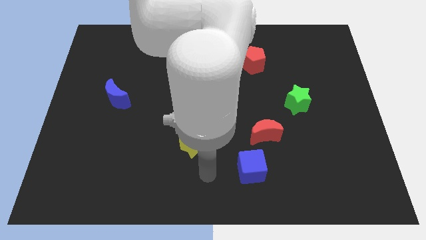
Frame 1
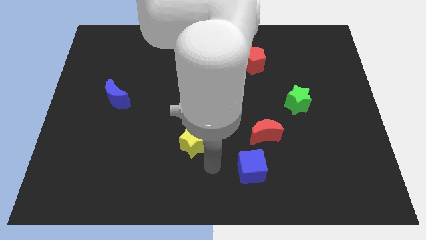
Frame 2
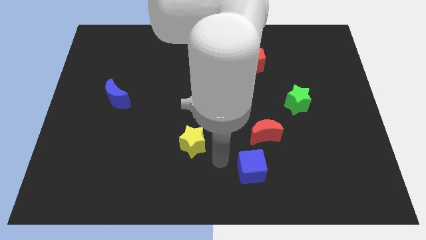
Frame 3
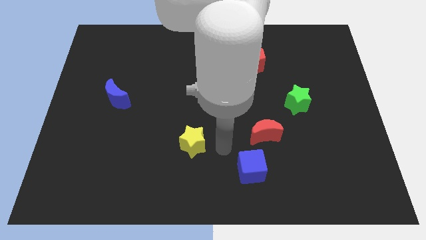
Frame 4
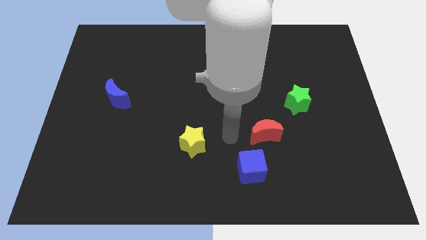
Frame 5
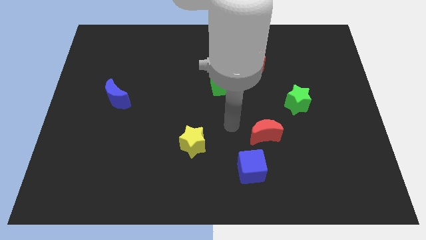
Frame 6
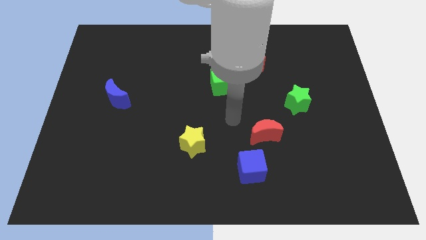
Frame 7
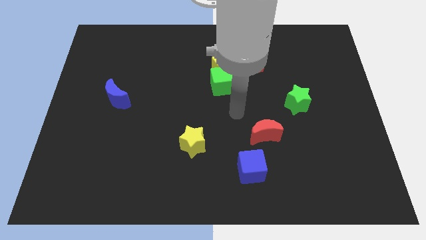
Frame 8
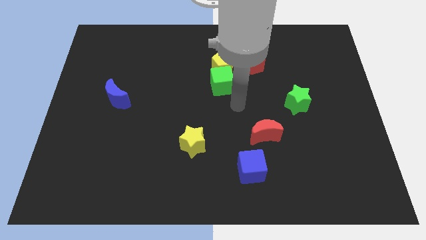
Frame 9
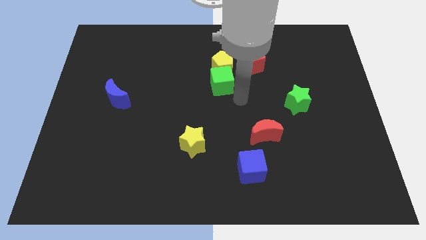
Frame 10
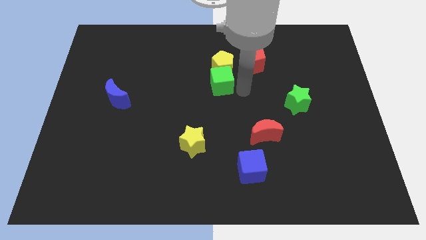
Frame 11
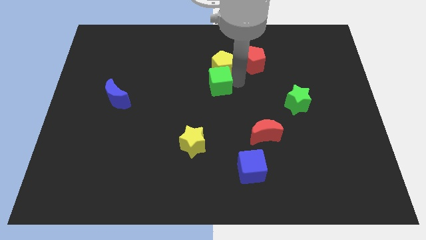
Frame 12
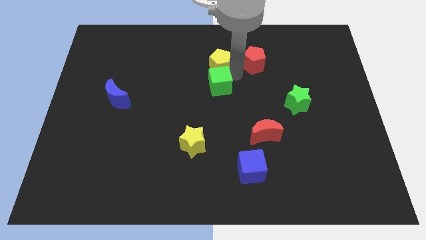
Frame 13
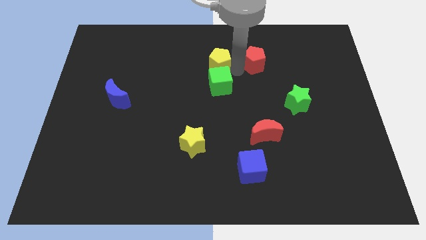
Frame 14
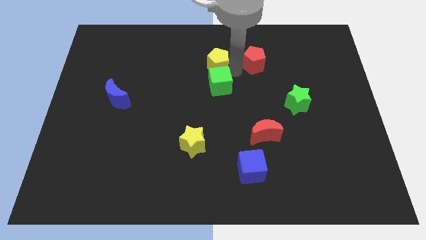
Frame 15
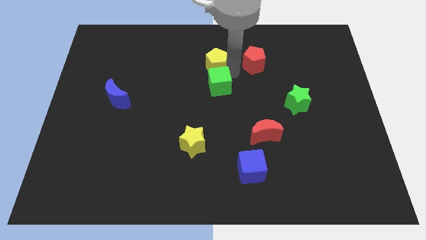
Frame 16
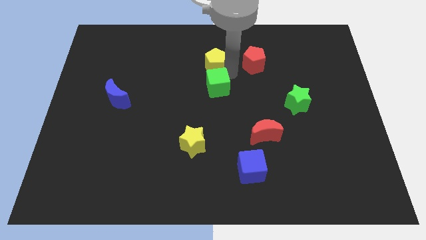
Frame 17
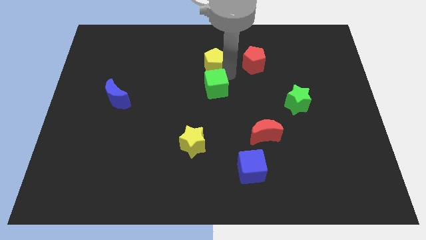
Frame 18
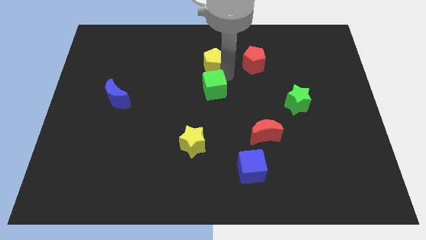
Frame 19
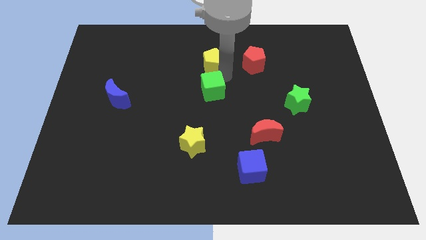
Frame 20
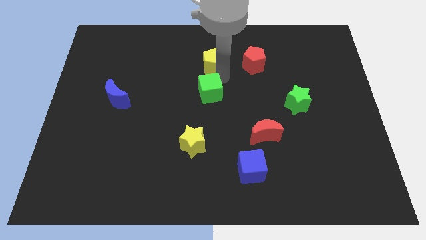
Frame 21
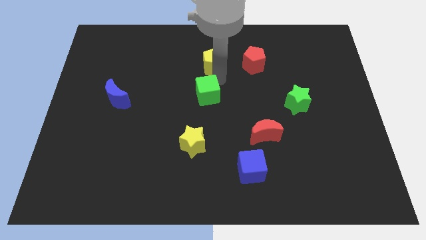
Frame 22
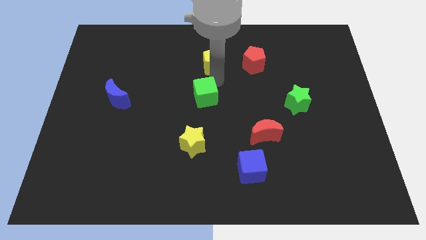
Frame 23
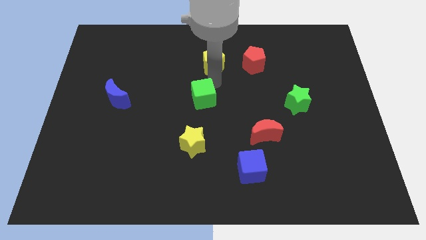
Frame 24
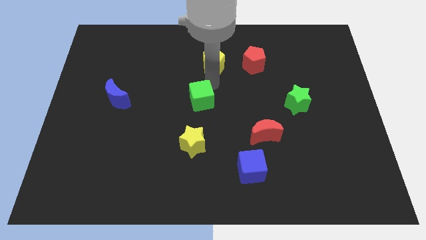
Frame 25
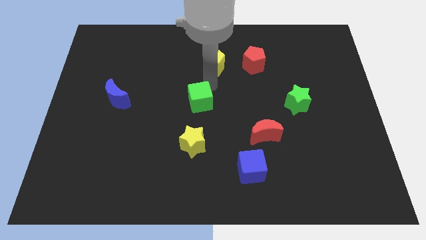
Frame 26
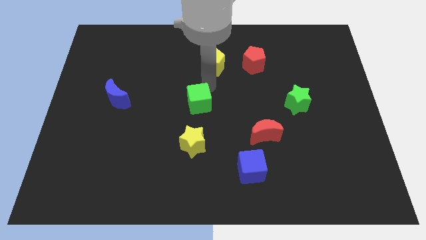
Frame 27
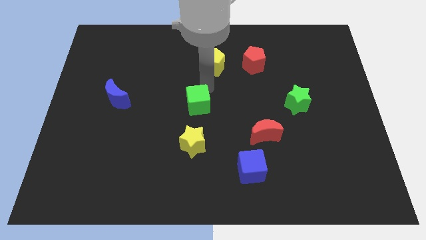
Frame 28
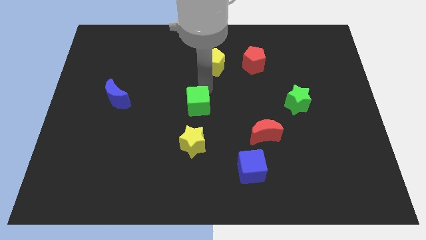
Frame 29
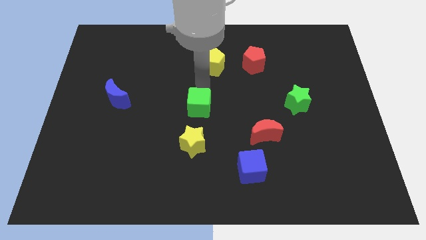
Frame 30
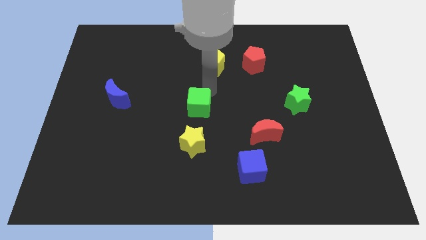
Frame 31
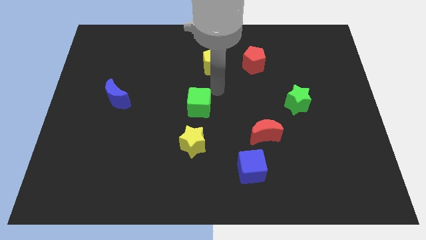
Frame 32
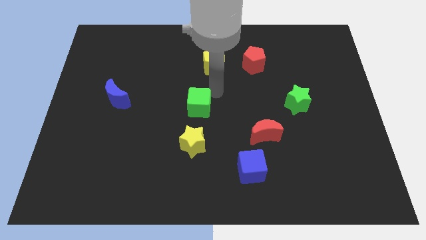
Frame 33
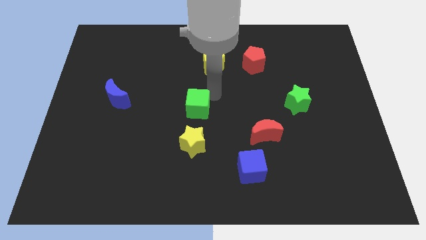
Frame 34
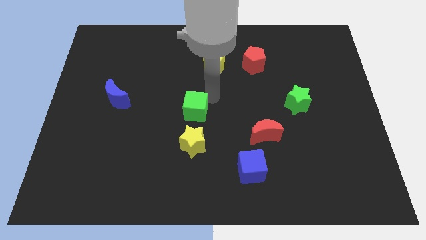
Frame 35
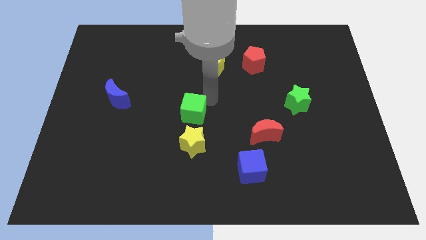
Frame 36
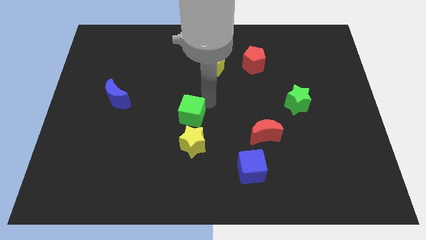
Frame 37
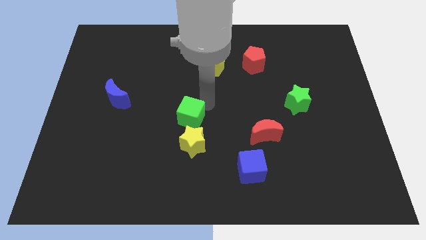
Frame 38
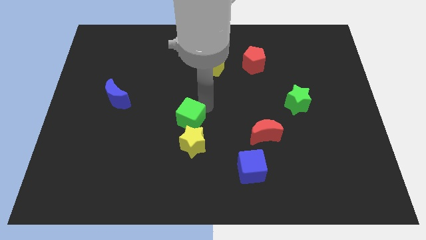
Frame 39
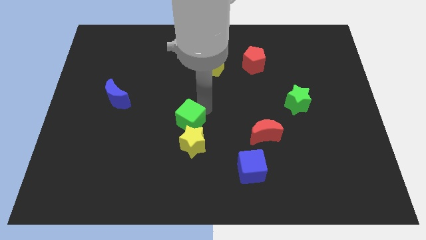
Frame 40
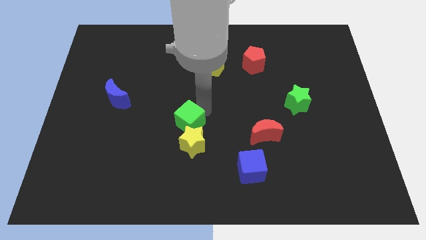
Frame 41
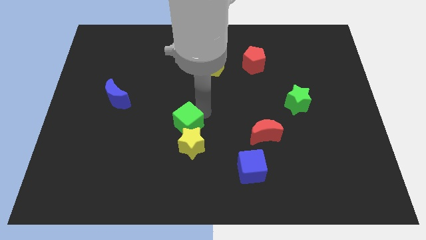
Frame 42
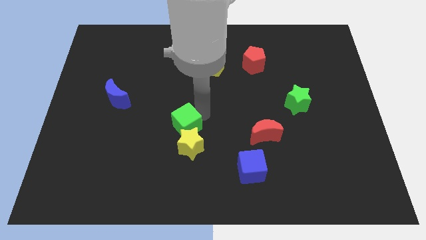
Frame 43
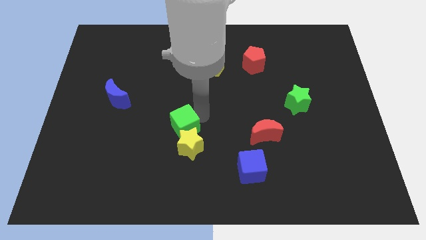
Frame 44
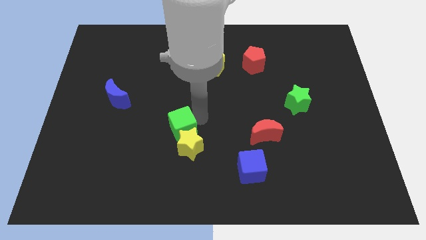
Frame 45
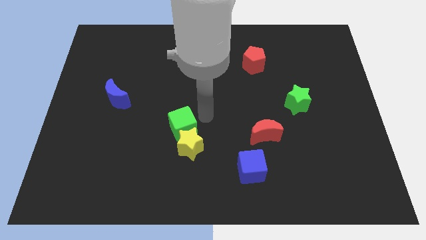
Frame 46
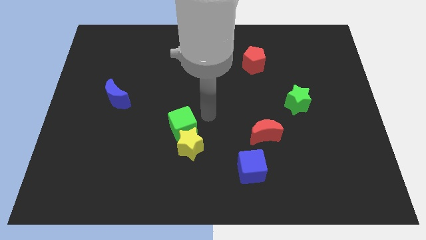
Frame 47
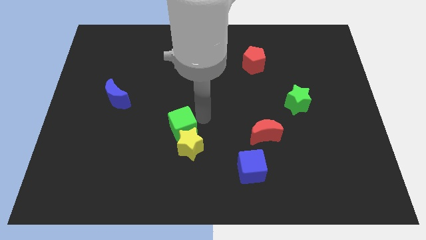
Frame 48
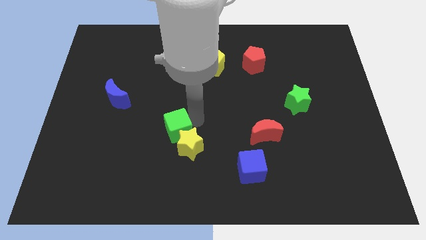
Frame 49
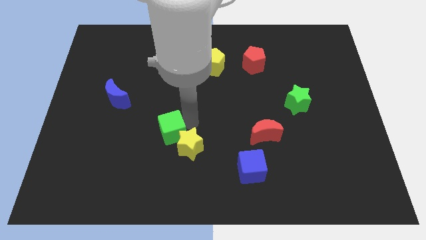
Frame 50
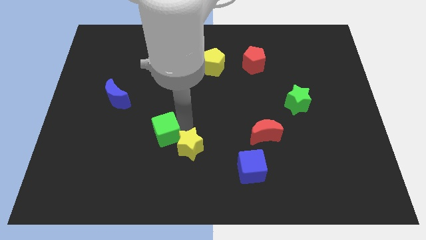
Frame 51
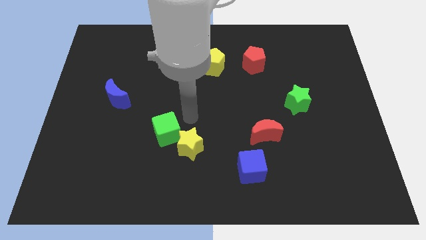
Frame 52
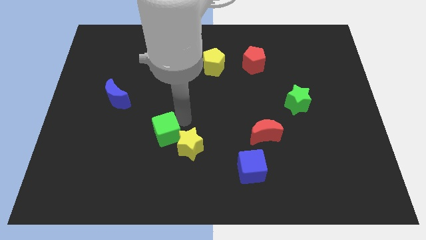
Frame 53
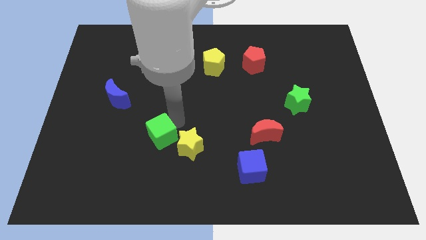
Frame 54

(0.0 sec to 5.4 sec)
slide the green cube downwards and then to the left

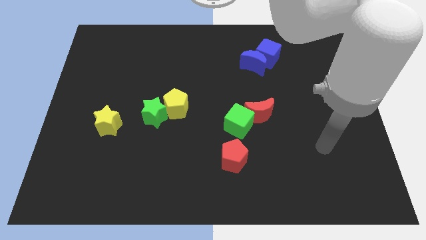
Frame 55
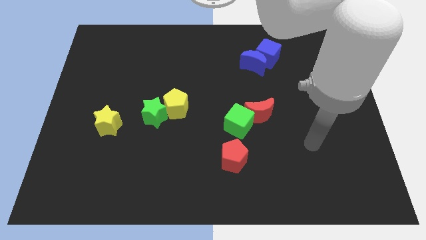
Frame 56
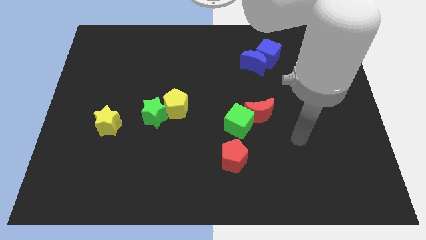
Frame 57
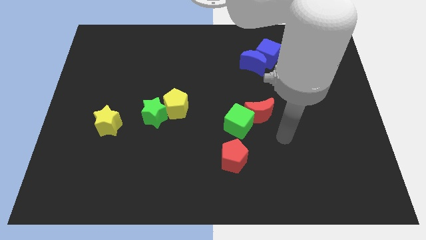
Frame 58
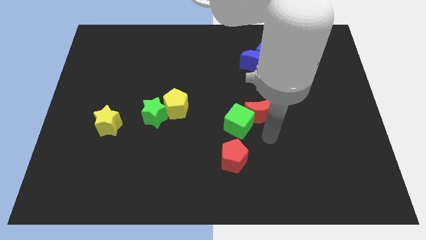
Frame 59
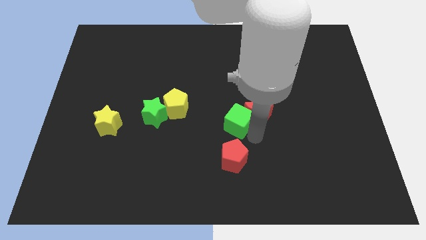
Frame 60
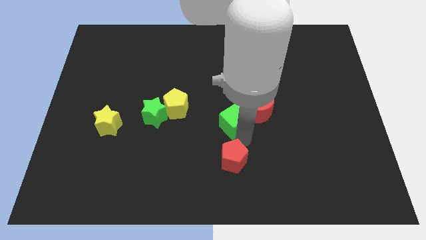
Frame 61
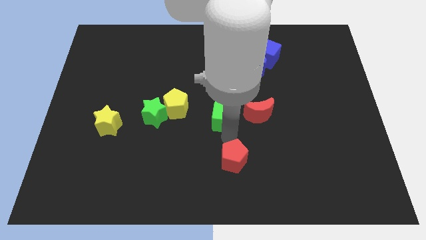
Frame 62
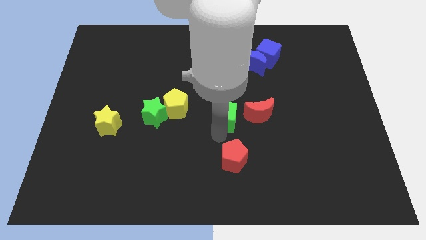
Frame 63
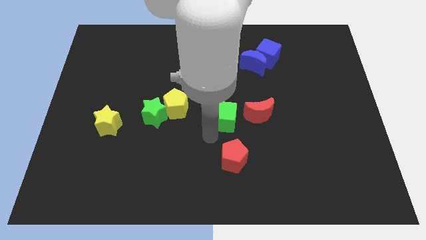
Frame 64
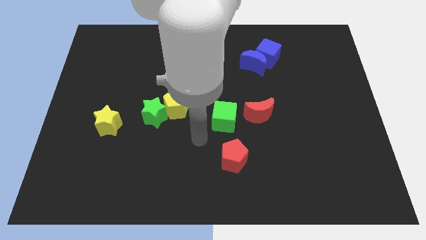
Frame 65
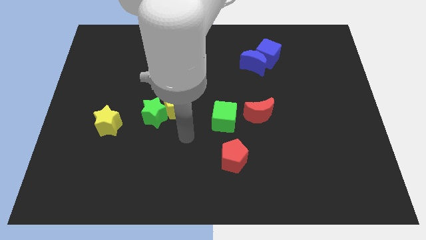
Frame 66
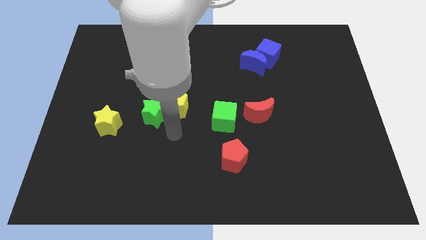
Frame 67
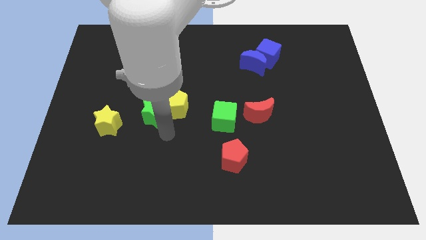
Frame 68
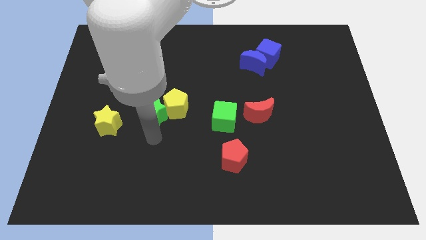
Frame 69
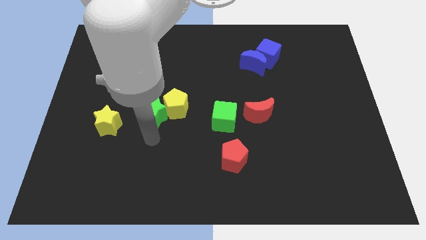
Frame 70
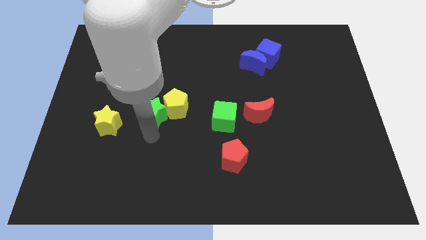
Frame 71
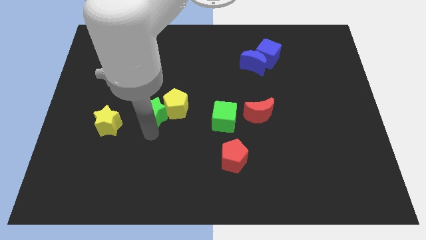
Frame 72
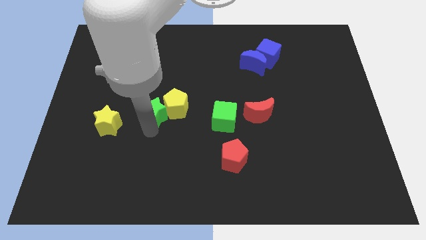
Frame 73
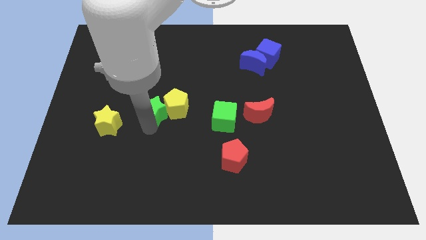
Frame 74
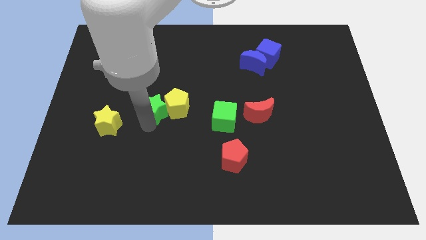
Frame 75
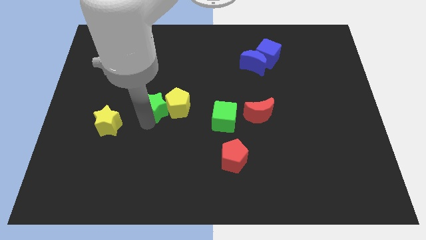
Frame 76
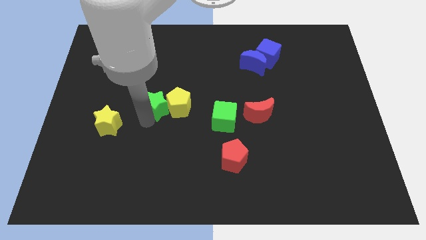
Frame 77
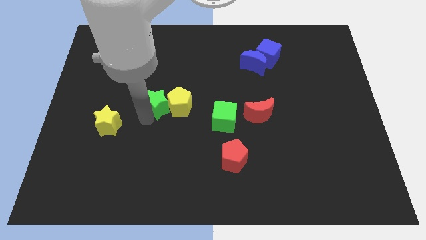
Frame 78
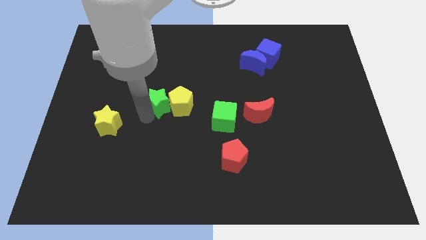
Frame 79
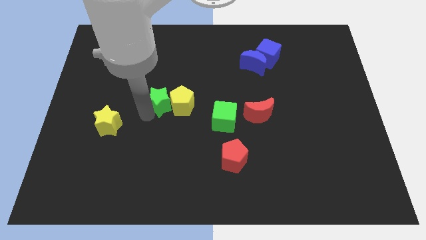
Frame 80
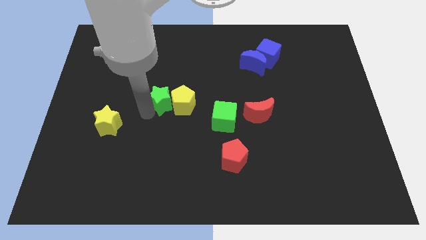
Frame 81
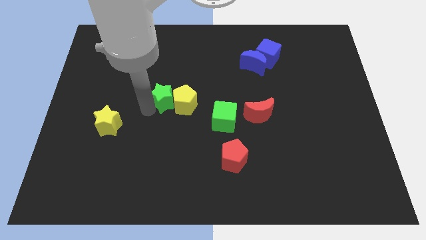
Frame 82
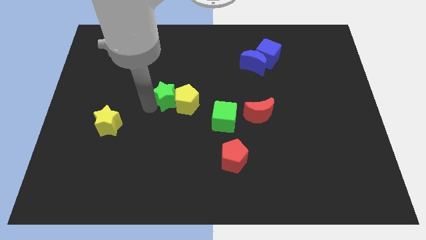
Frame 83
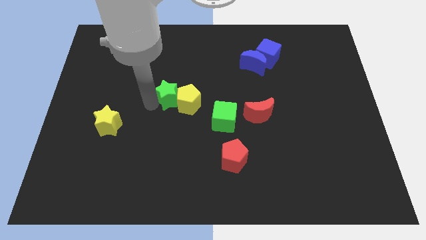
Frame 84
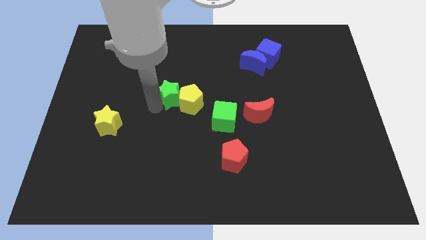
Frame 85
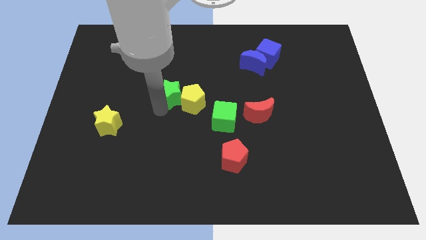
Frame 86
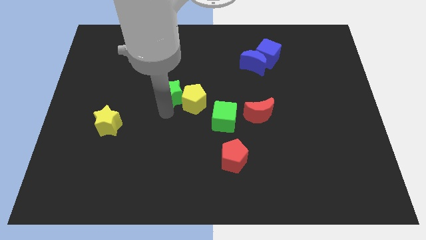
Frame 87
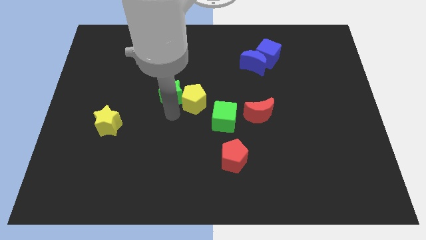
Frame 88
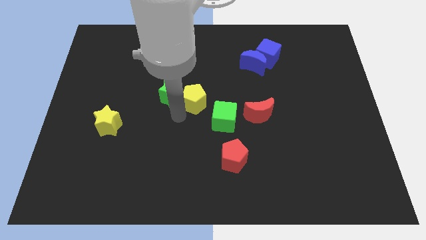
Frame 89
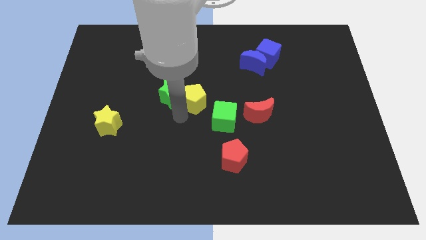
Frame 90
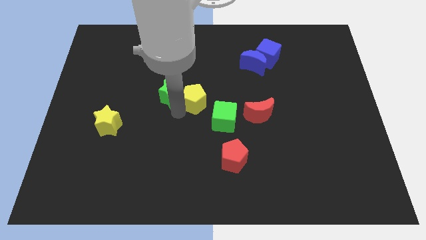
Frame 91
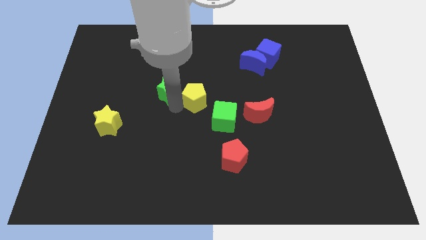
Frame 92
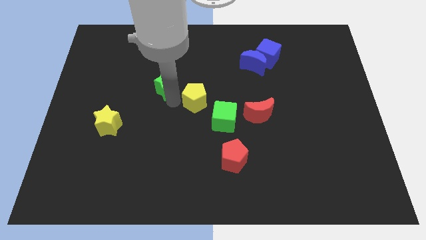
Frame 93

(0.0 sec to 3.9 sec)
move the green star up a bit
